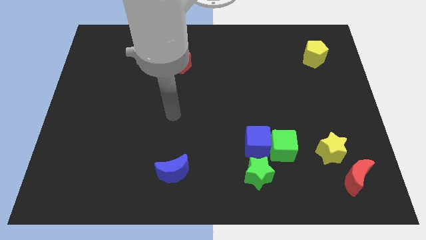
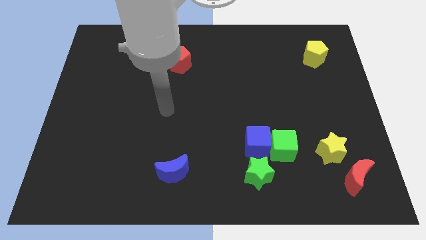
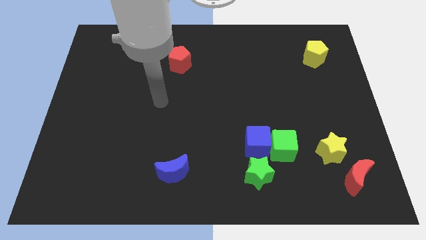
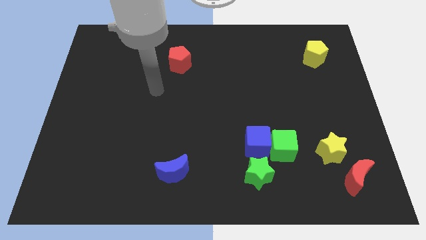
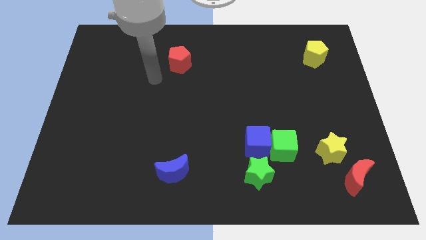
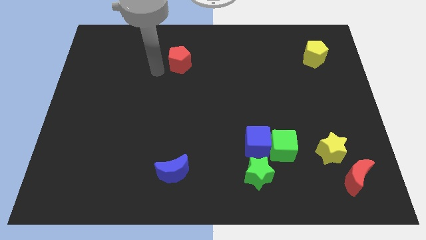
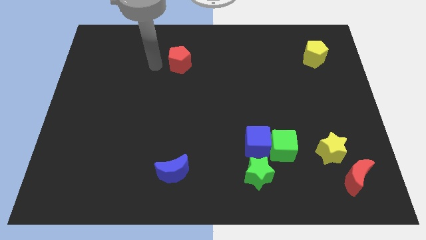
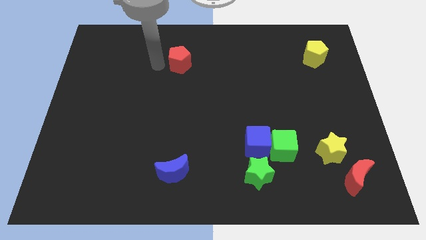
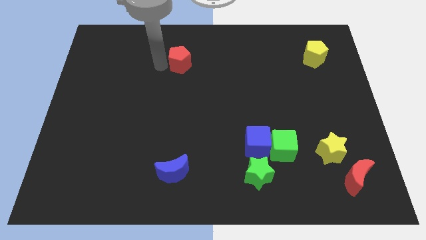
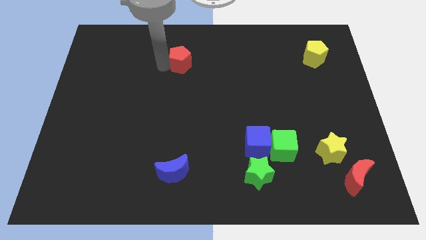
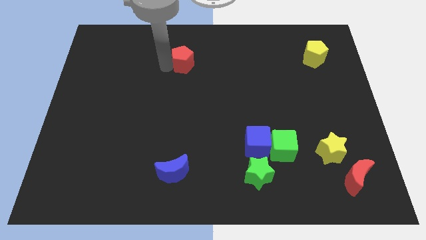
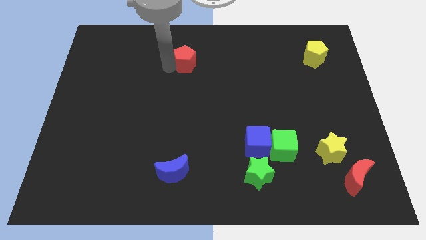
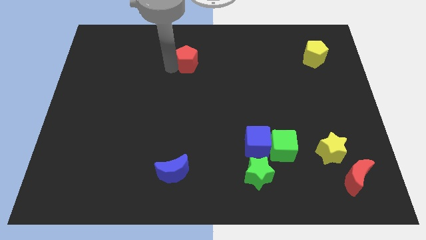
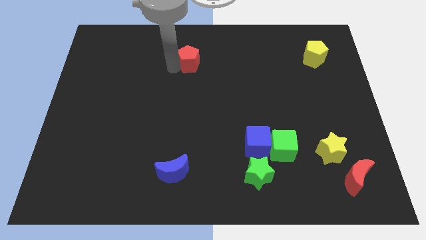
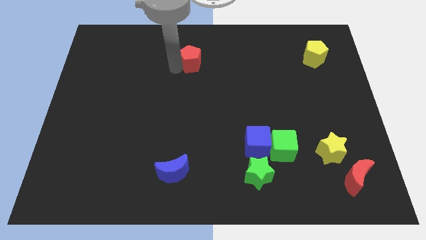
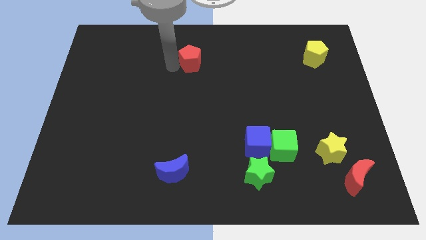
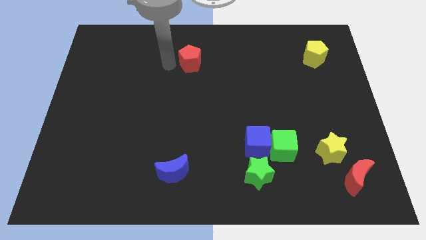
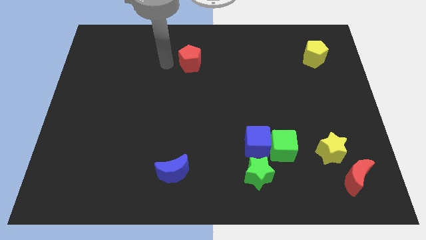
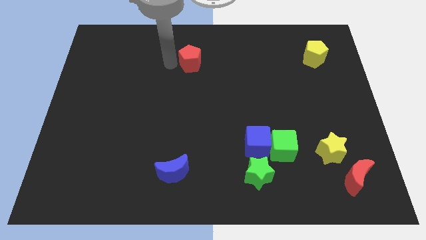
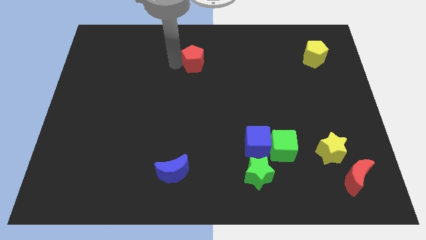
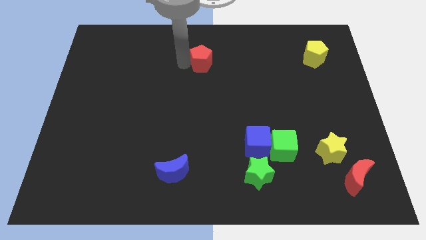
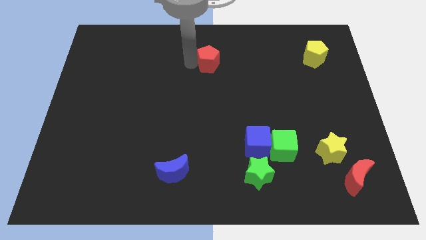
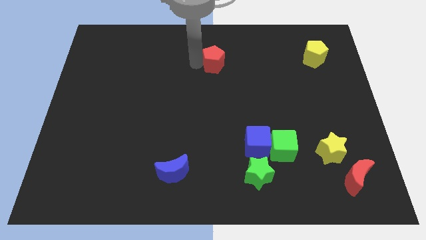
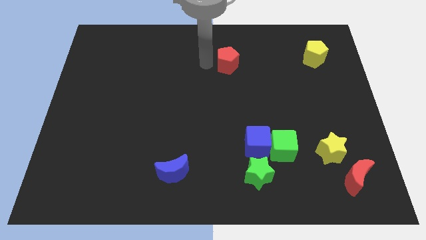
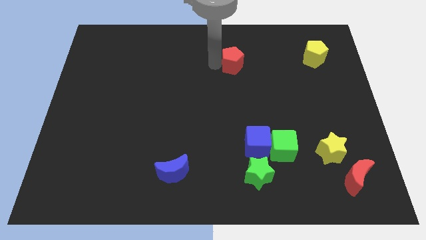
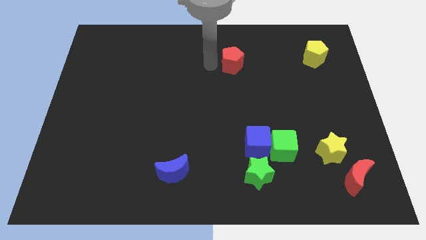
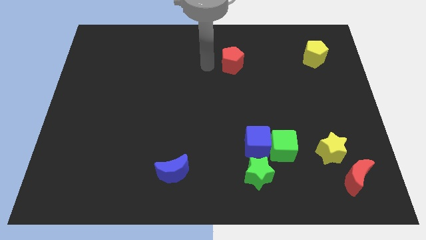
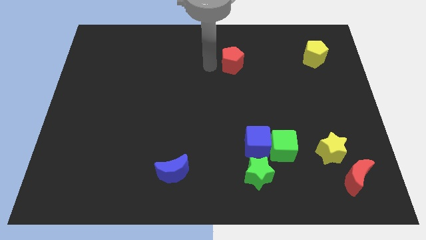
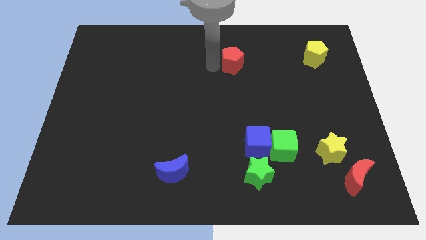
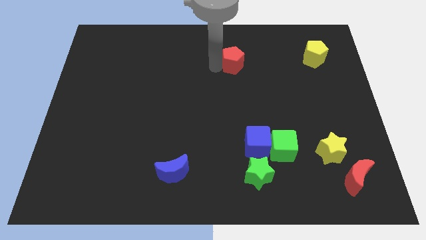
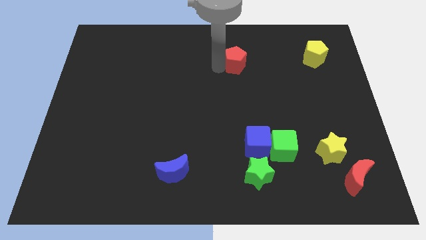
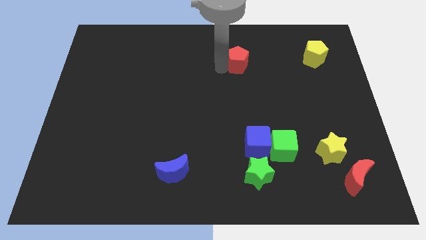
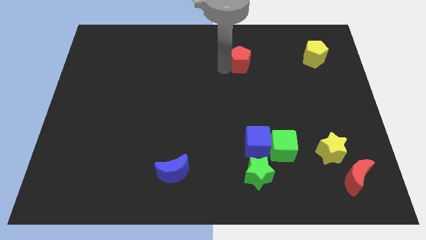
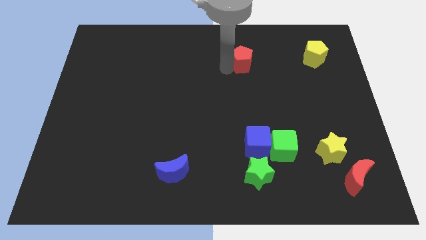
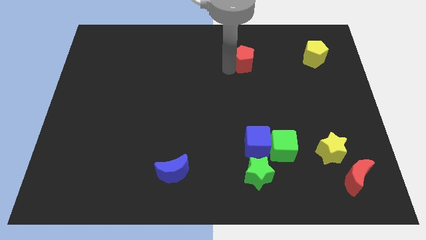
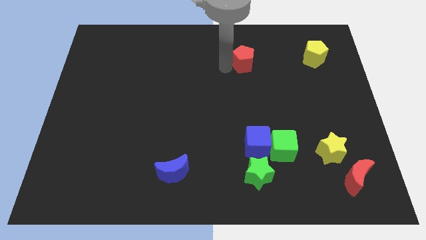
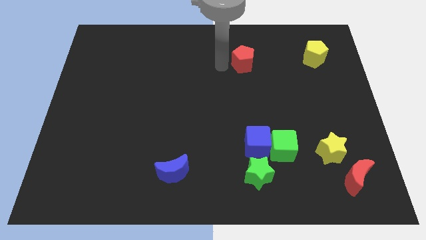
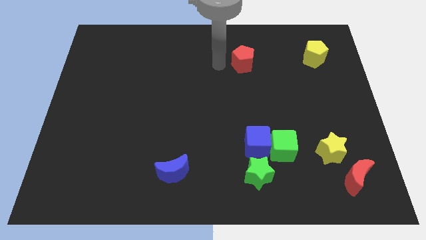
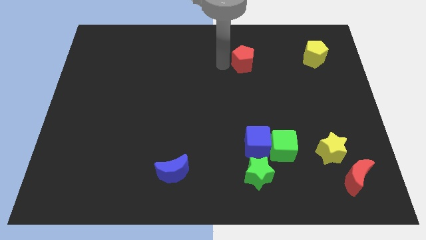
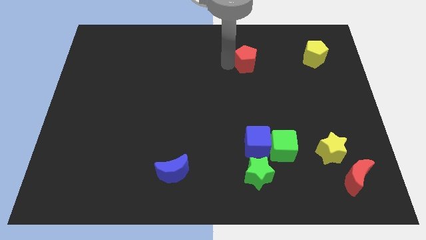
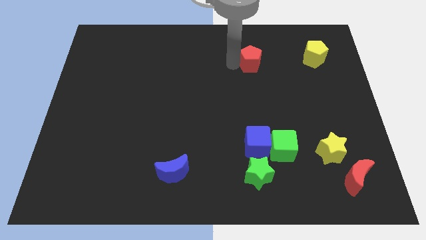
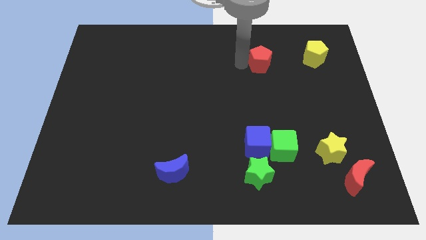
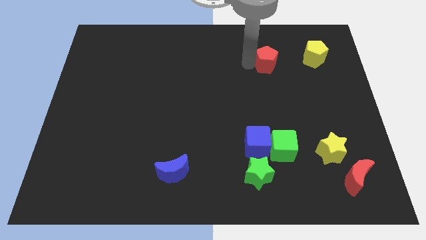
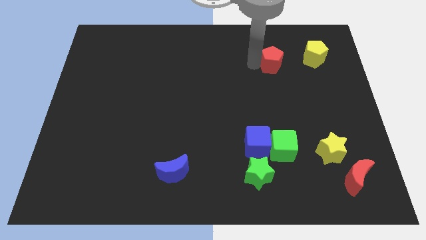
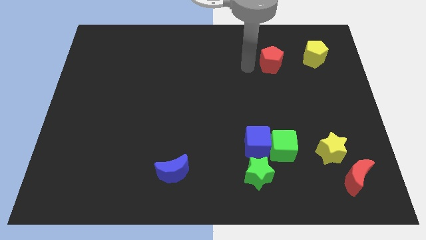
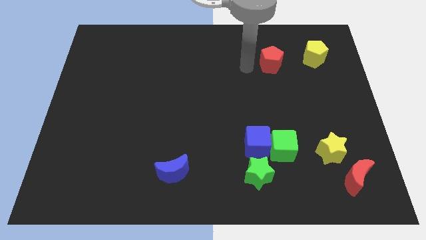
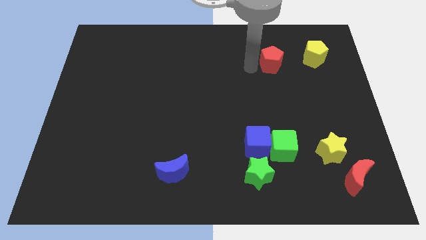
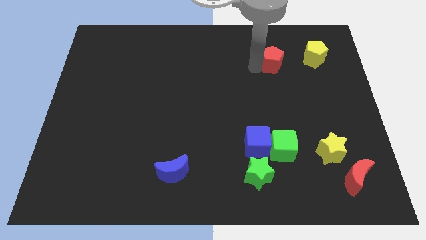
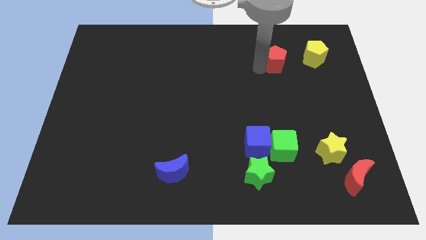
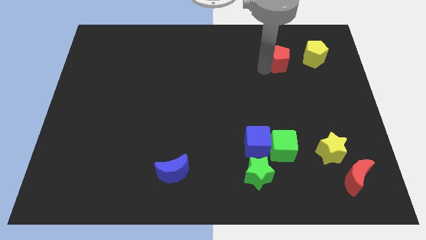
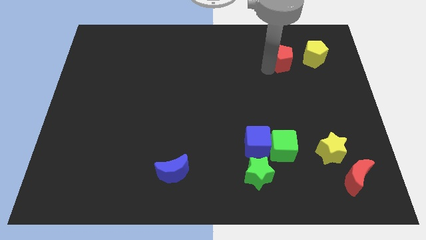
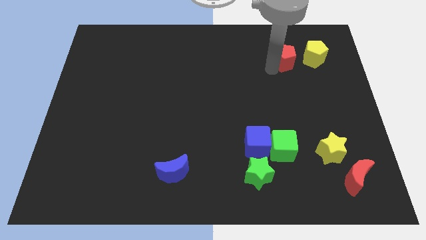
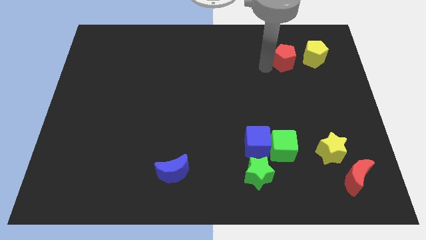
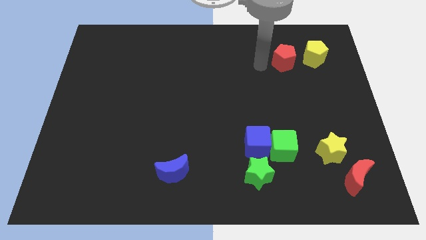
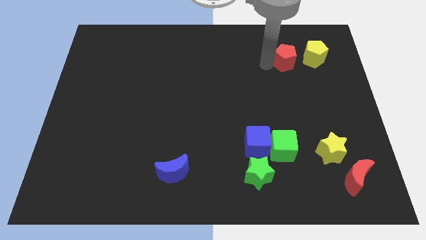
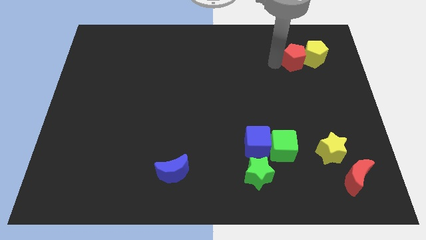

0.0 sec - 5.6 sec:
put the red pentagon close to the yellow pentagon

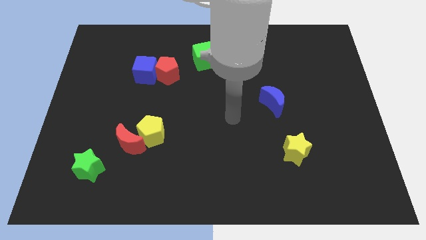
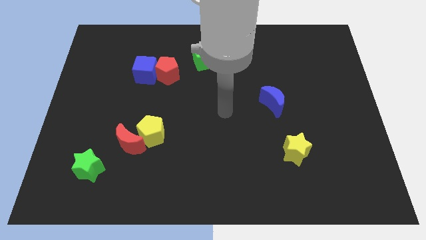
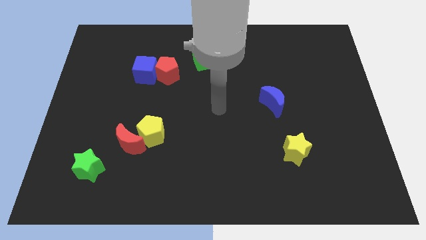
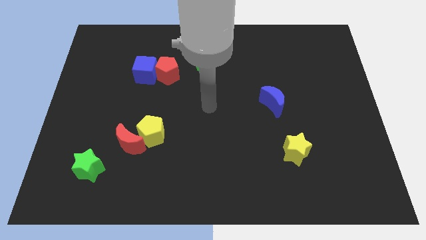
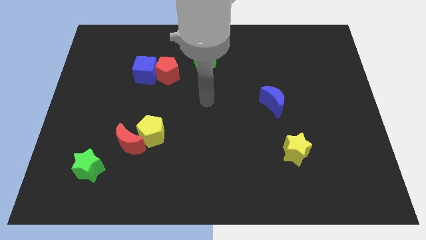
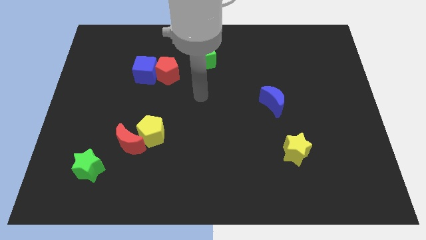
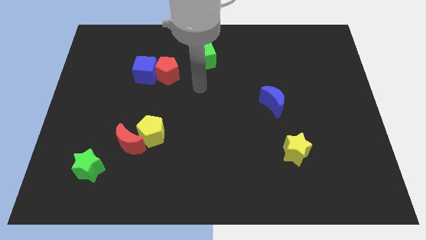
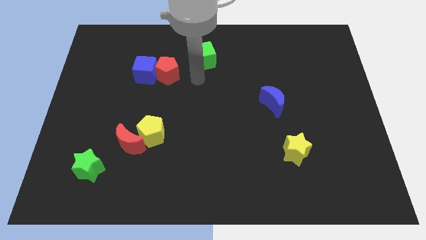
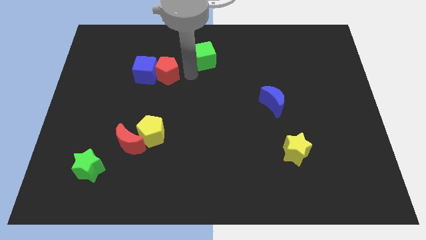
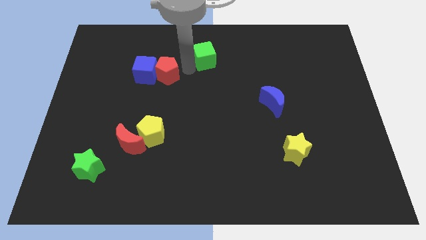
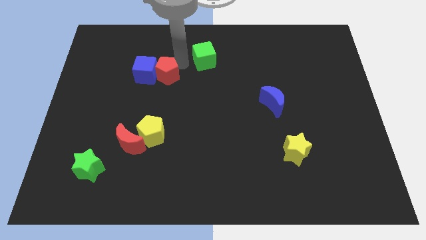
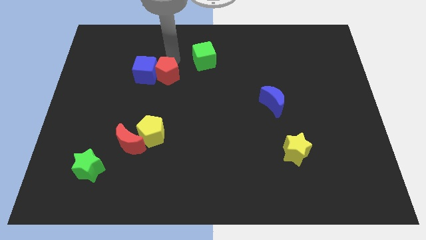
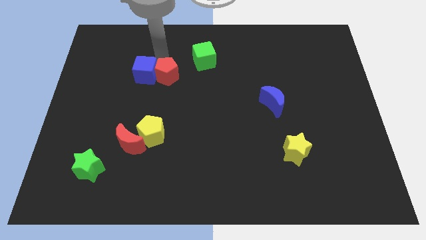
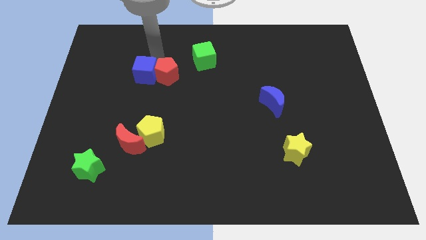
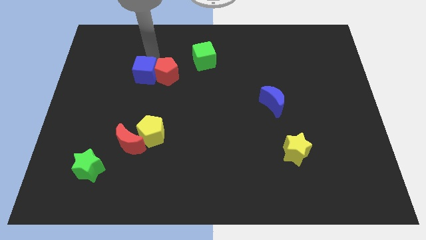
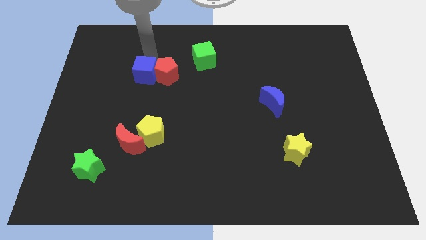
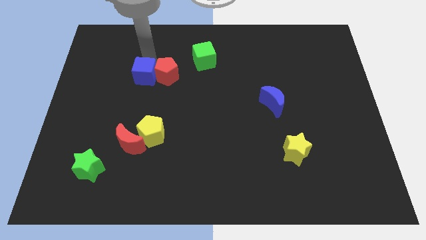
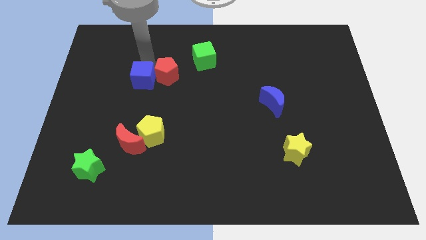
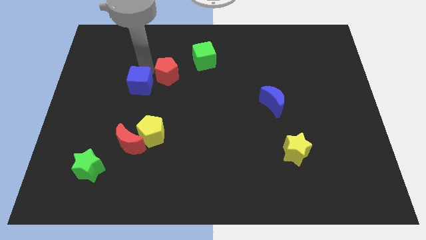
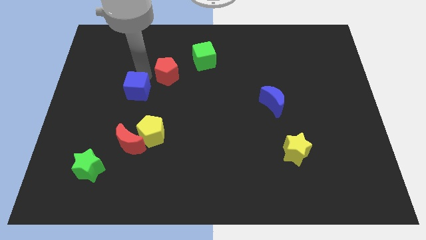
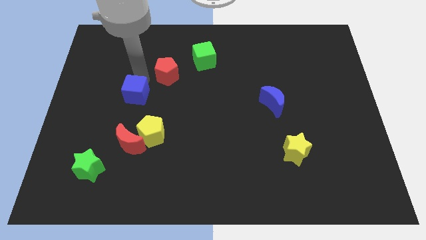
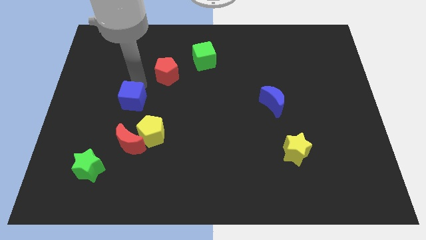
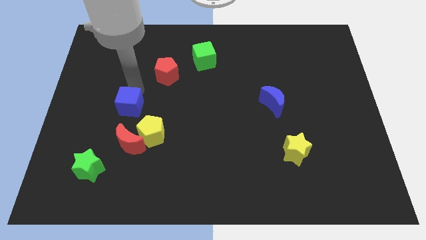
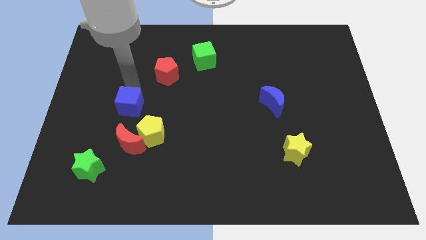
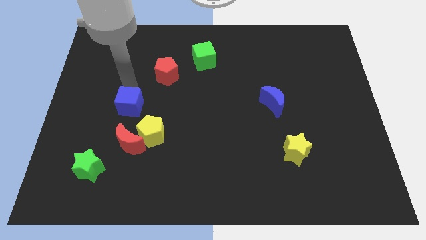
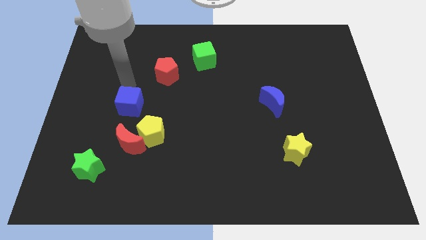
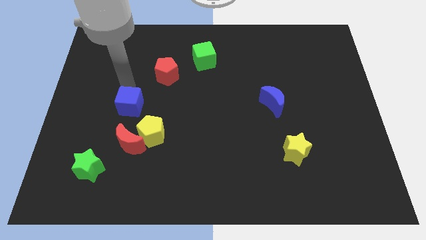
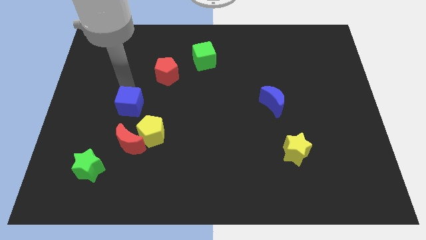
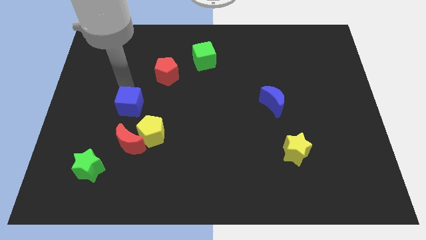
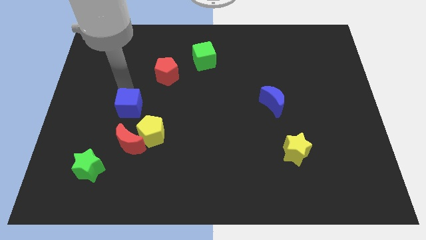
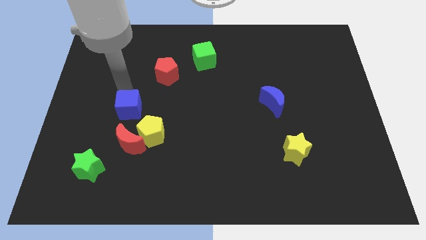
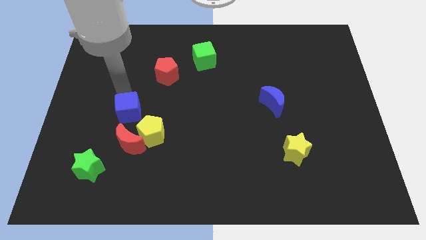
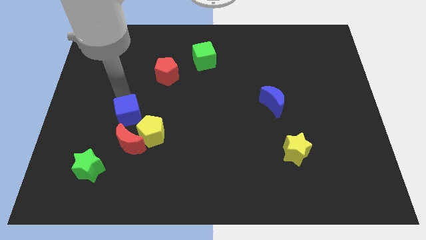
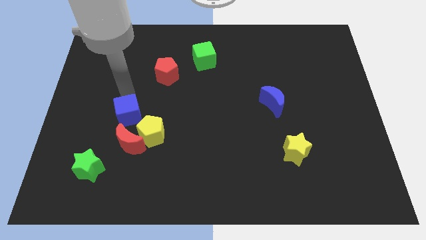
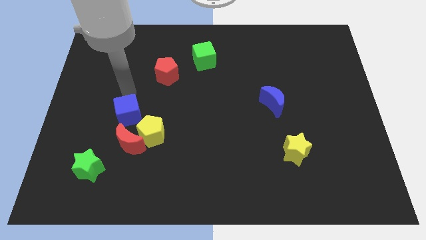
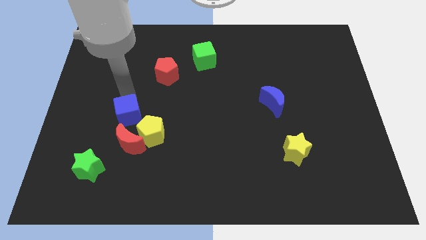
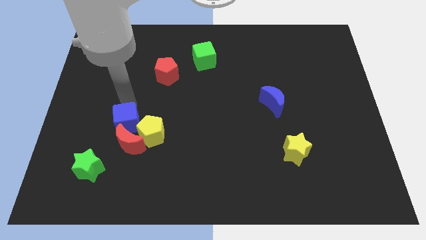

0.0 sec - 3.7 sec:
push the blue cube towards the red moon
